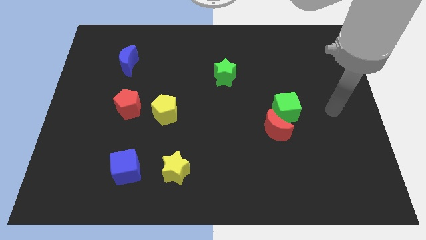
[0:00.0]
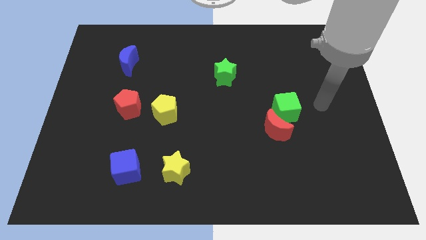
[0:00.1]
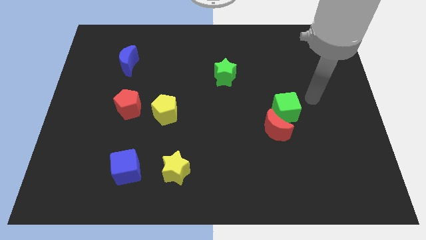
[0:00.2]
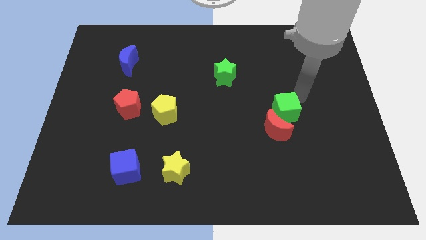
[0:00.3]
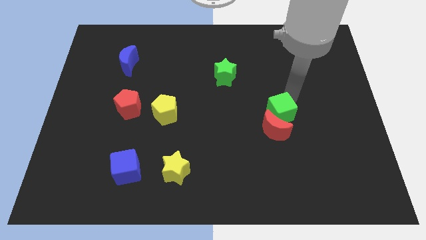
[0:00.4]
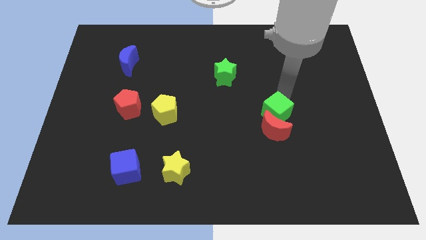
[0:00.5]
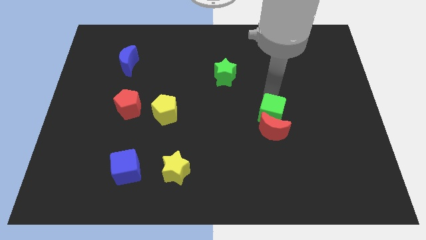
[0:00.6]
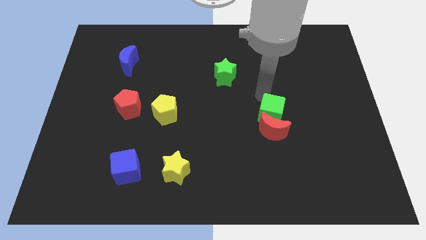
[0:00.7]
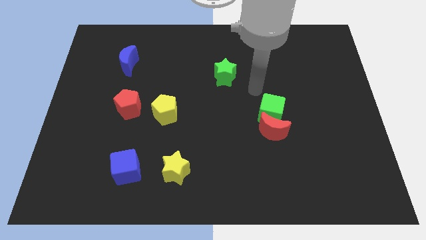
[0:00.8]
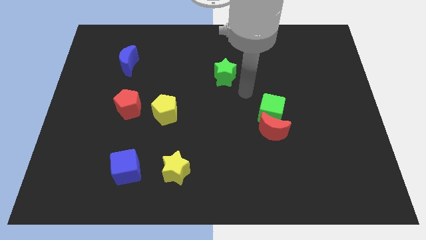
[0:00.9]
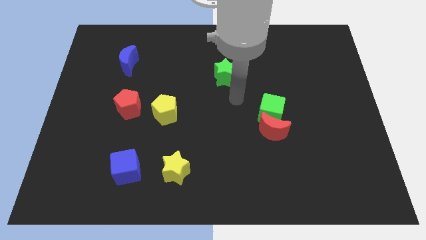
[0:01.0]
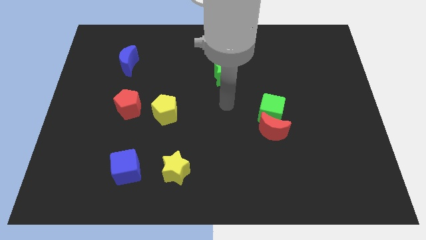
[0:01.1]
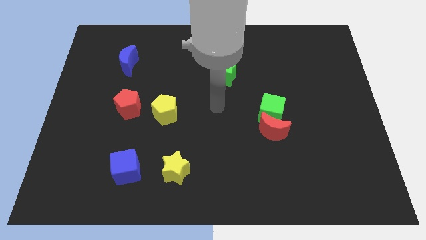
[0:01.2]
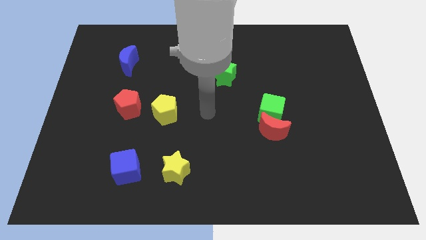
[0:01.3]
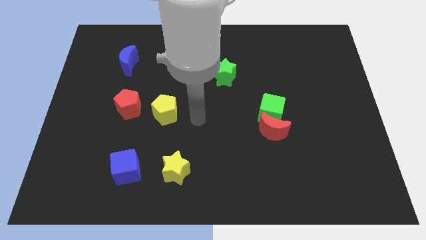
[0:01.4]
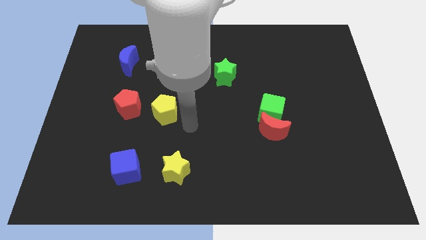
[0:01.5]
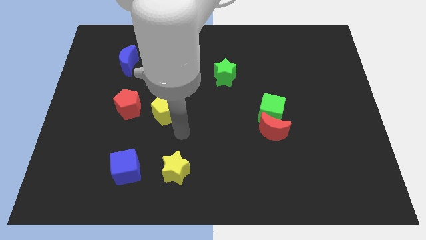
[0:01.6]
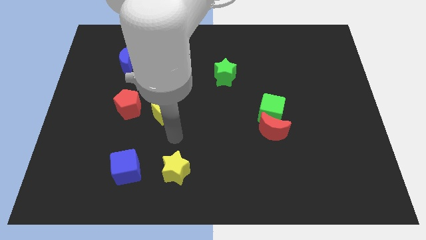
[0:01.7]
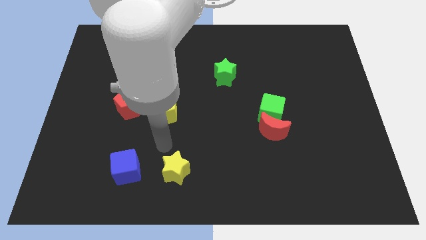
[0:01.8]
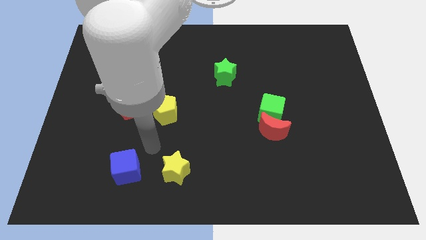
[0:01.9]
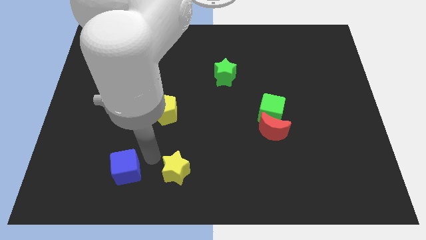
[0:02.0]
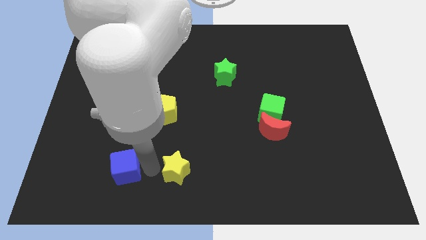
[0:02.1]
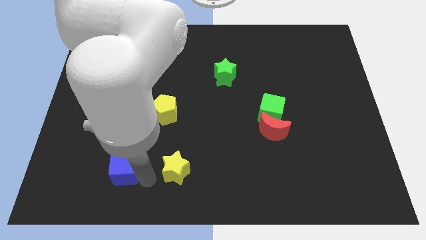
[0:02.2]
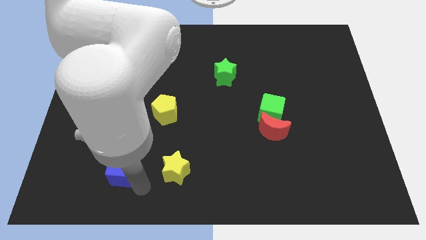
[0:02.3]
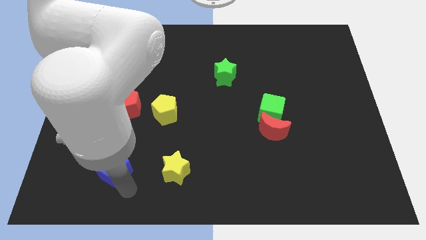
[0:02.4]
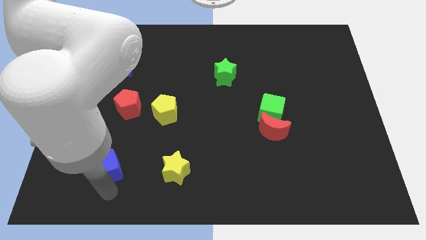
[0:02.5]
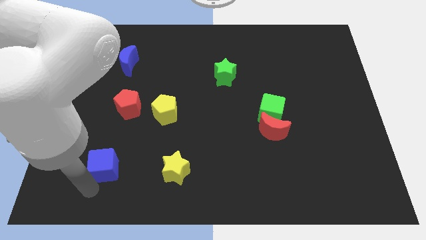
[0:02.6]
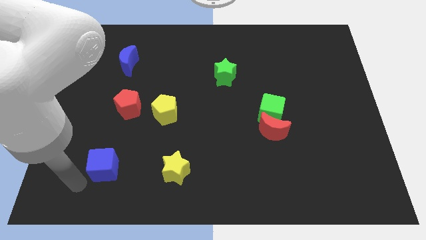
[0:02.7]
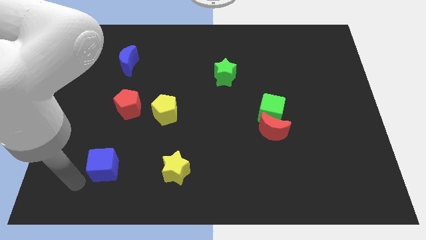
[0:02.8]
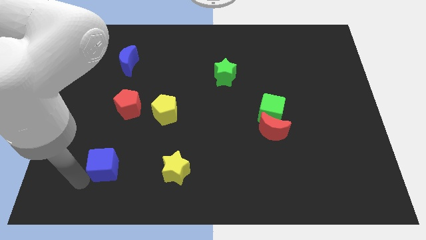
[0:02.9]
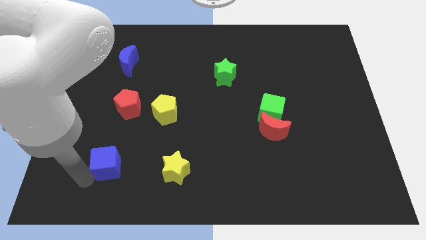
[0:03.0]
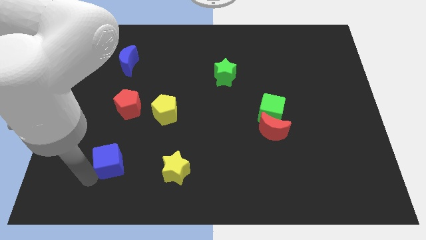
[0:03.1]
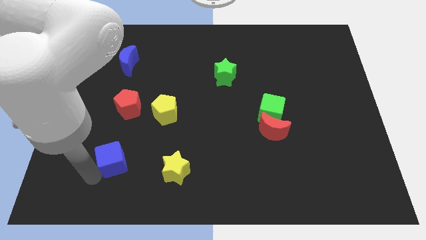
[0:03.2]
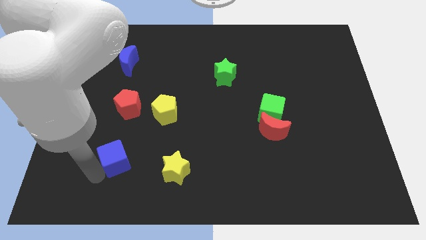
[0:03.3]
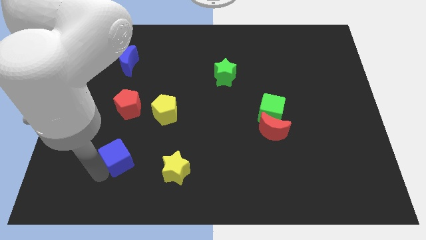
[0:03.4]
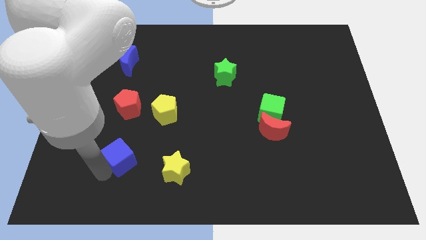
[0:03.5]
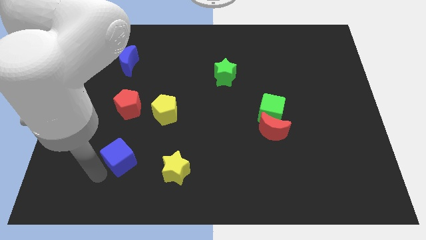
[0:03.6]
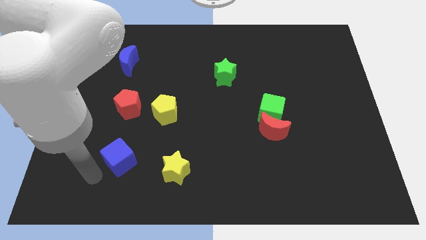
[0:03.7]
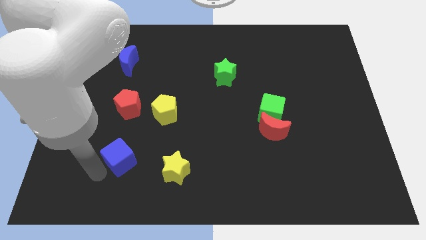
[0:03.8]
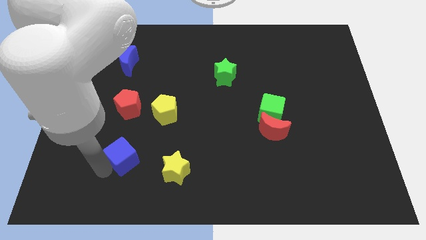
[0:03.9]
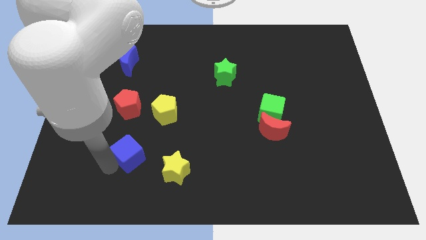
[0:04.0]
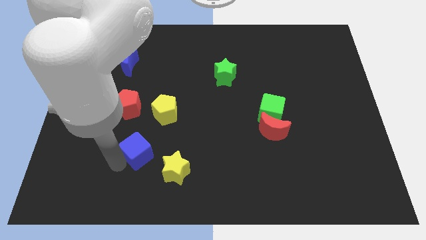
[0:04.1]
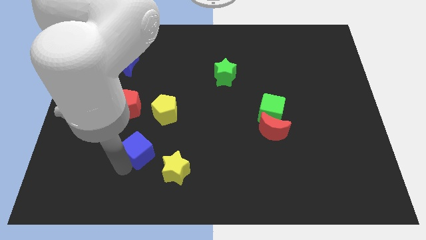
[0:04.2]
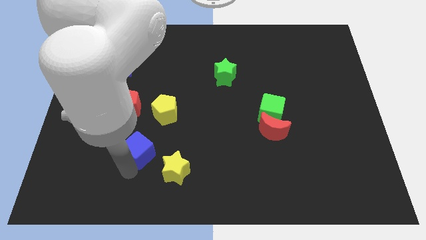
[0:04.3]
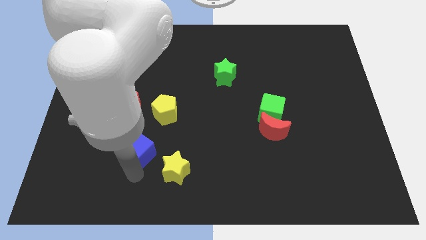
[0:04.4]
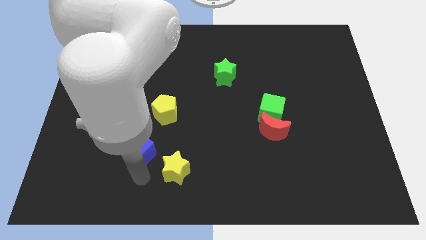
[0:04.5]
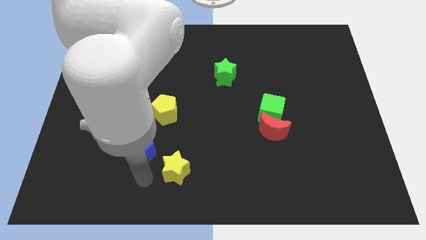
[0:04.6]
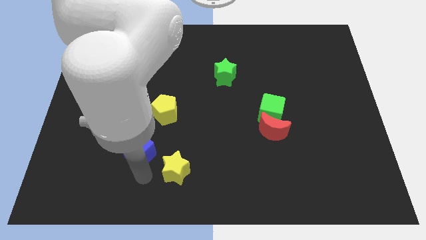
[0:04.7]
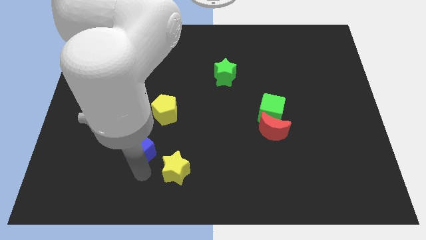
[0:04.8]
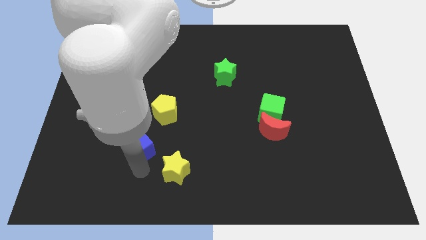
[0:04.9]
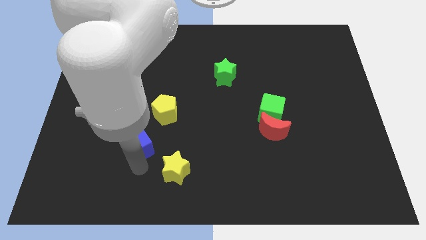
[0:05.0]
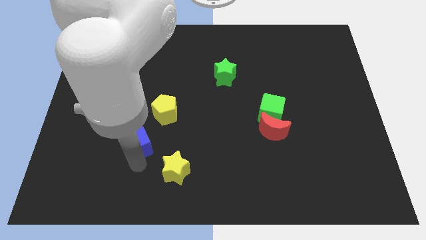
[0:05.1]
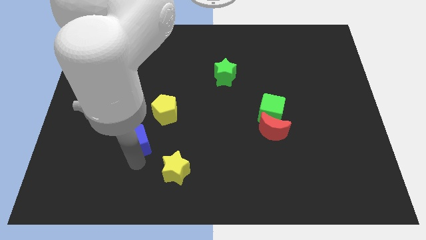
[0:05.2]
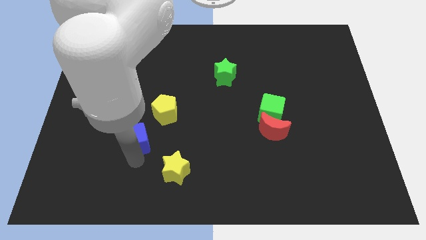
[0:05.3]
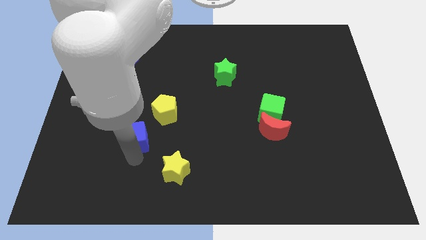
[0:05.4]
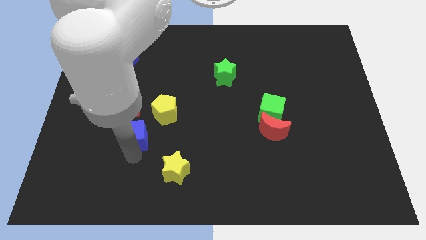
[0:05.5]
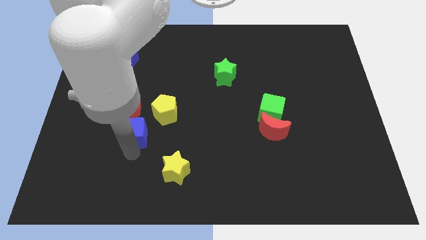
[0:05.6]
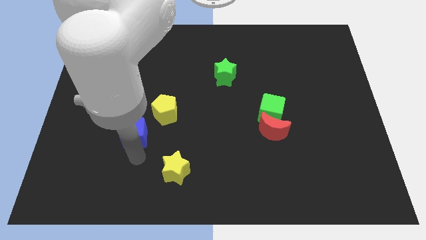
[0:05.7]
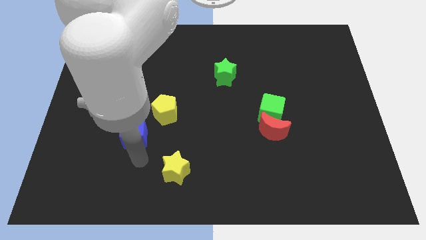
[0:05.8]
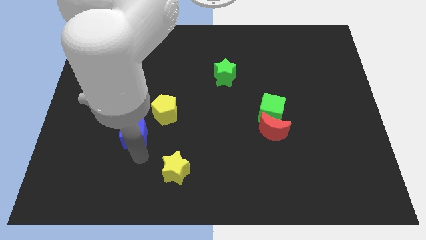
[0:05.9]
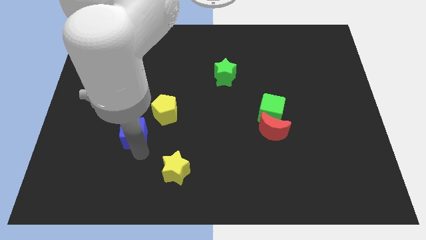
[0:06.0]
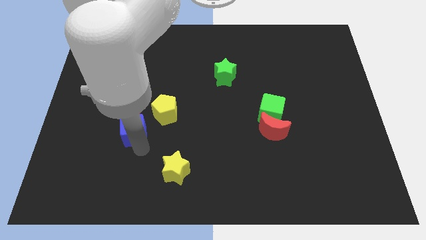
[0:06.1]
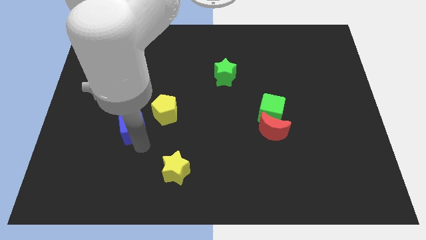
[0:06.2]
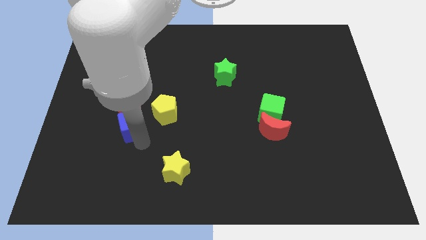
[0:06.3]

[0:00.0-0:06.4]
move the blue cube next to the red pentagon

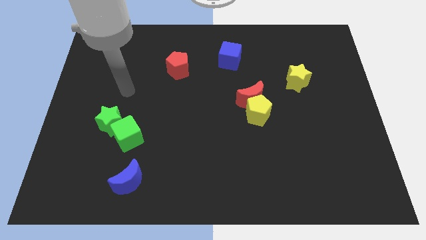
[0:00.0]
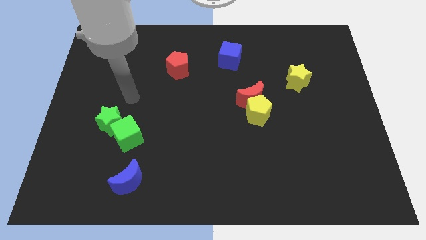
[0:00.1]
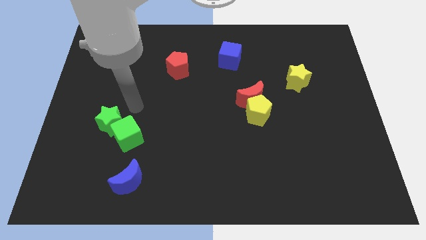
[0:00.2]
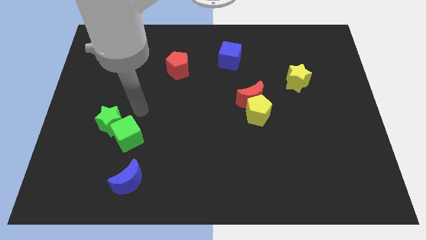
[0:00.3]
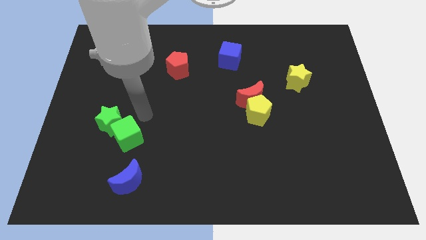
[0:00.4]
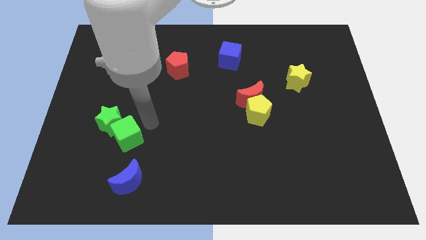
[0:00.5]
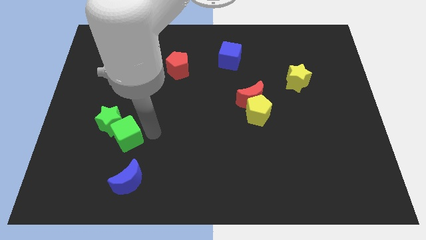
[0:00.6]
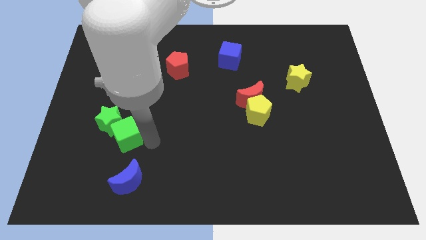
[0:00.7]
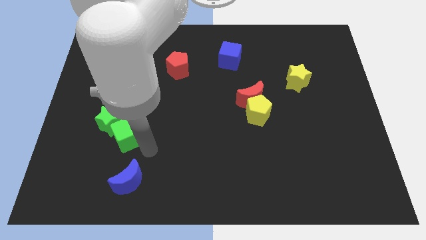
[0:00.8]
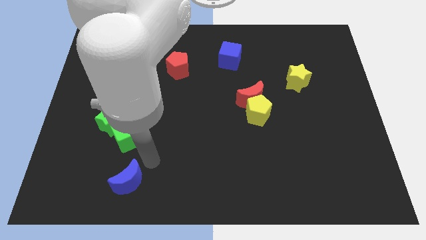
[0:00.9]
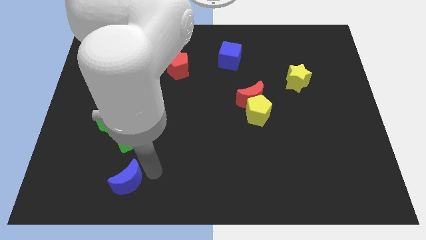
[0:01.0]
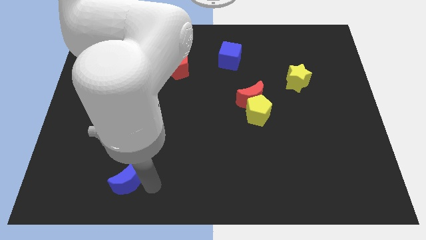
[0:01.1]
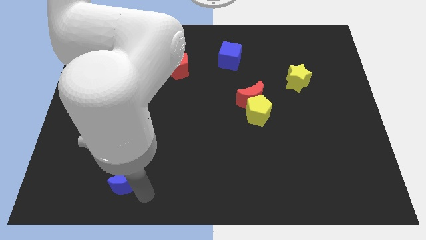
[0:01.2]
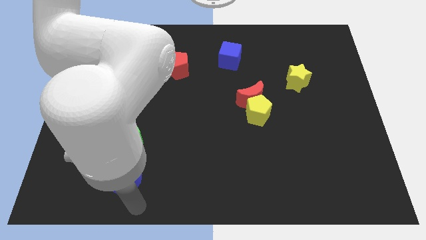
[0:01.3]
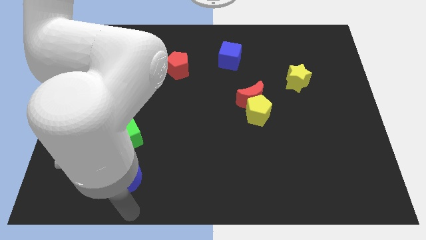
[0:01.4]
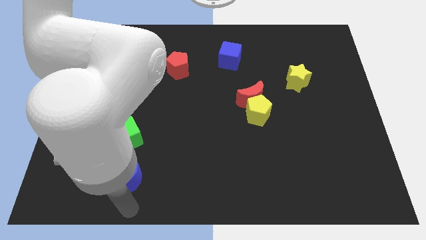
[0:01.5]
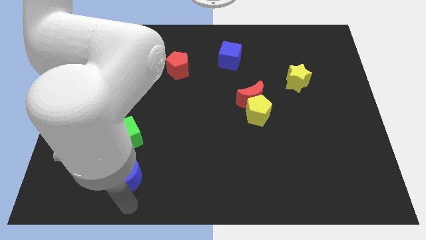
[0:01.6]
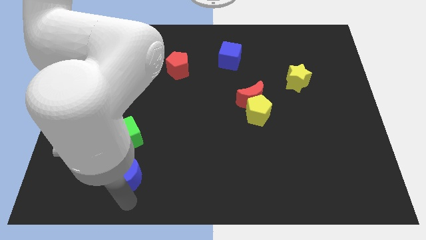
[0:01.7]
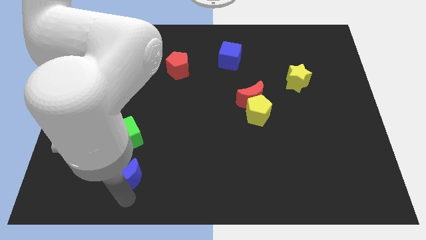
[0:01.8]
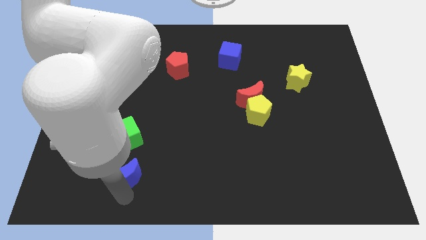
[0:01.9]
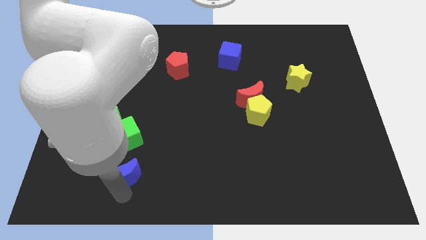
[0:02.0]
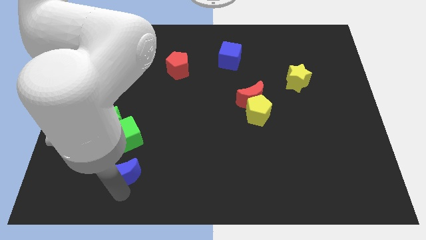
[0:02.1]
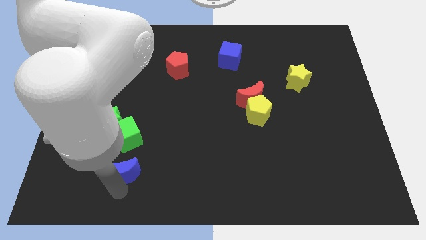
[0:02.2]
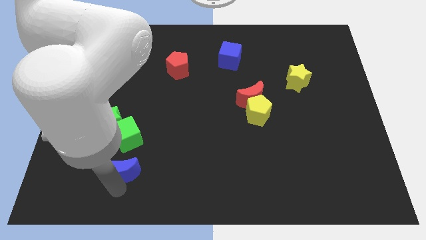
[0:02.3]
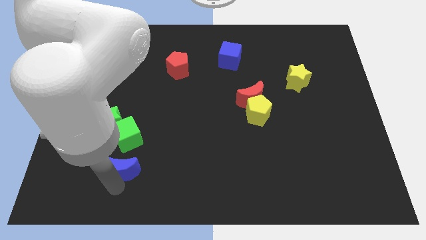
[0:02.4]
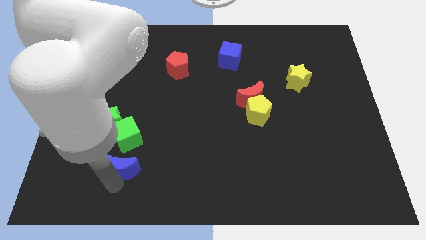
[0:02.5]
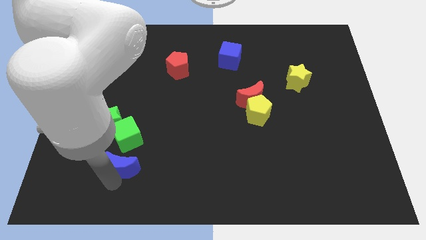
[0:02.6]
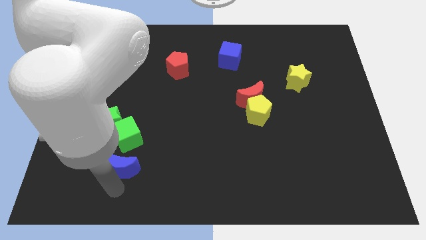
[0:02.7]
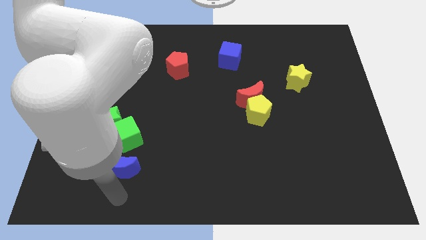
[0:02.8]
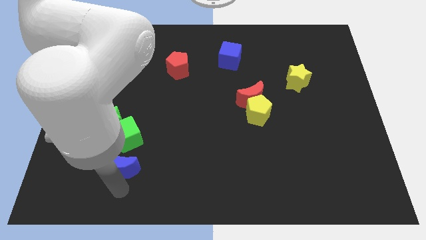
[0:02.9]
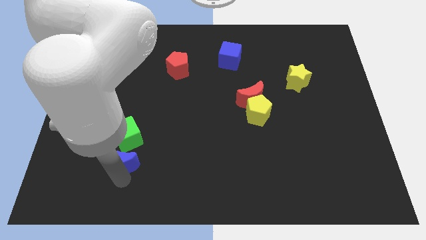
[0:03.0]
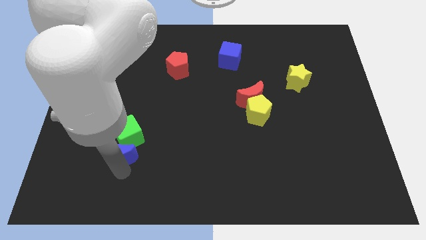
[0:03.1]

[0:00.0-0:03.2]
move the blue moon towards the green cube
